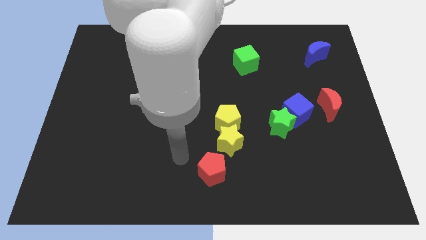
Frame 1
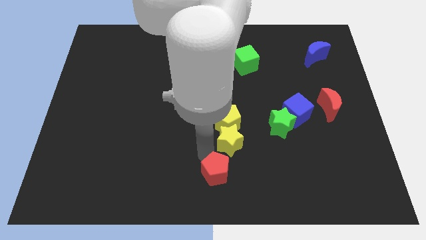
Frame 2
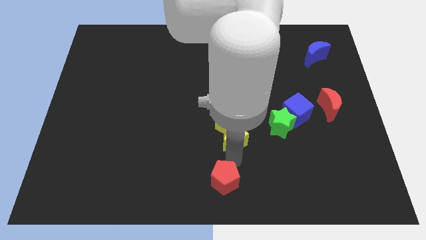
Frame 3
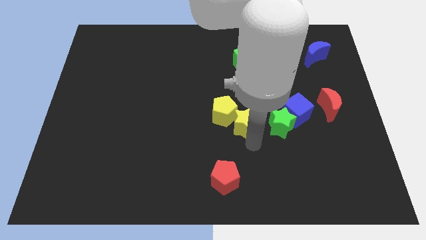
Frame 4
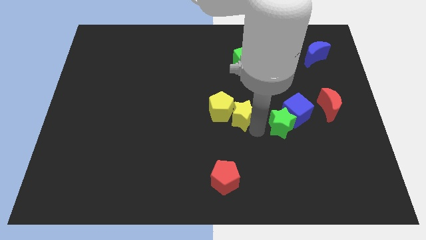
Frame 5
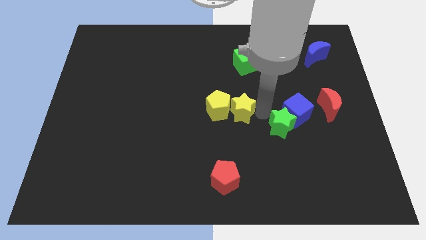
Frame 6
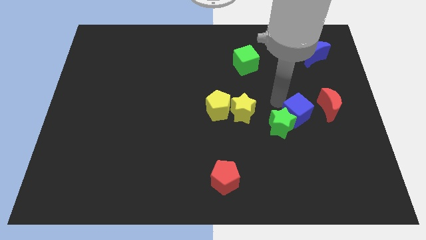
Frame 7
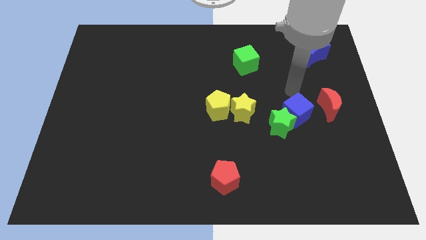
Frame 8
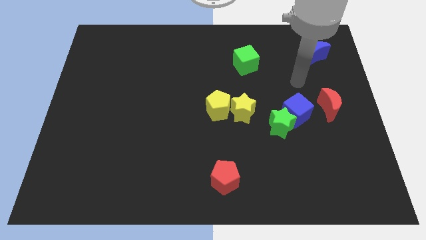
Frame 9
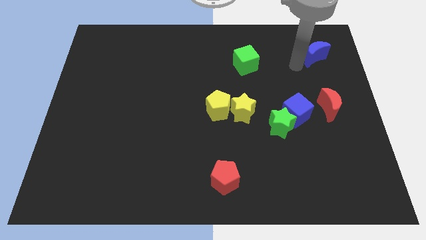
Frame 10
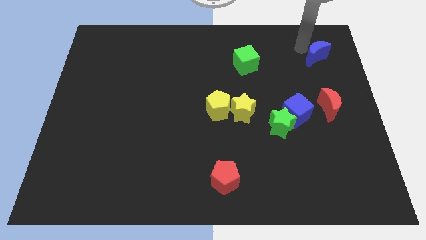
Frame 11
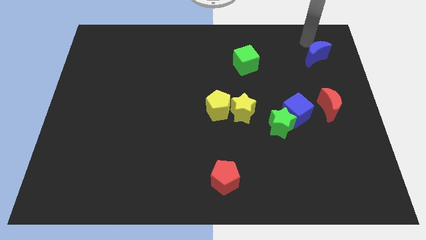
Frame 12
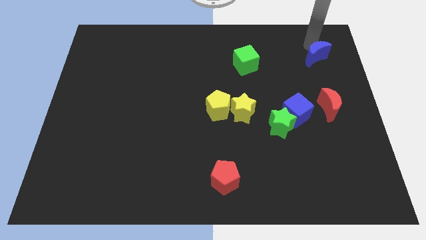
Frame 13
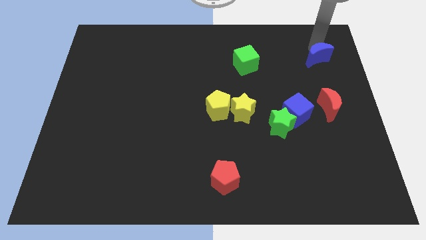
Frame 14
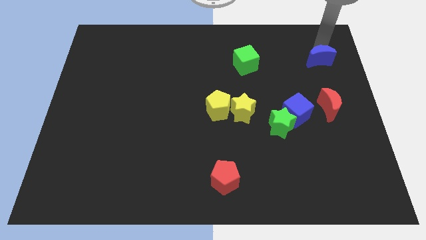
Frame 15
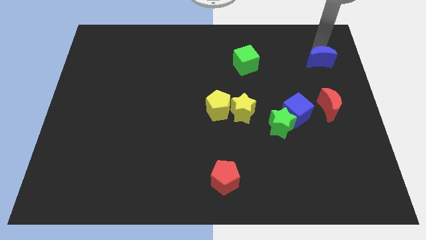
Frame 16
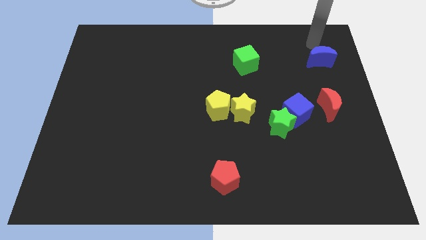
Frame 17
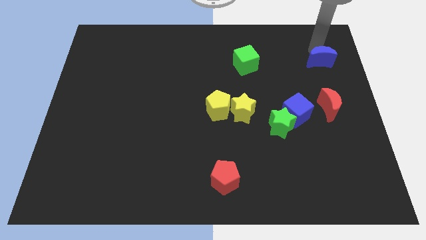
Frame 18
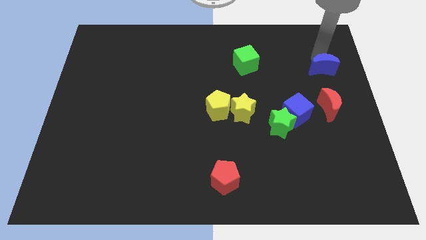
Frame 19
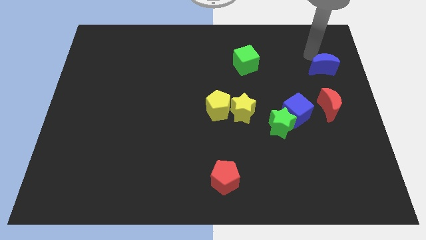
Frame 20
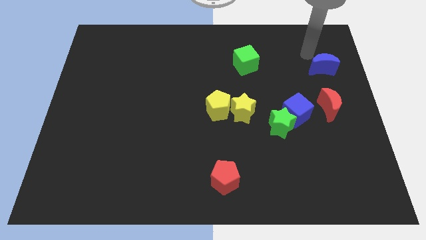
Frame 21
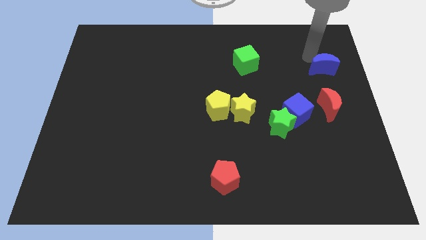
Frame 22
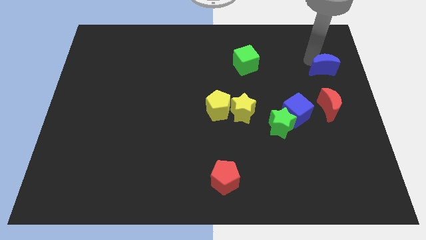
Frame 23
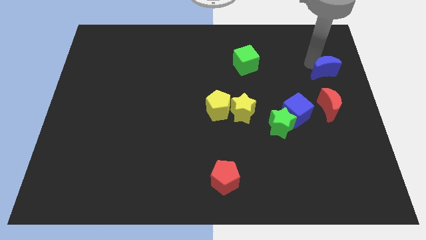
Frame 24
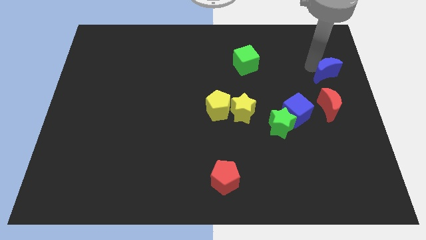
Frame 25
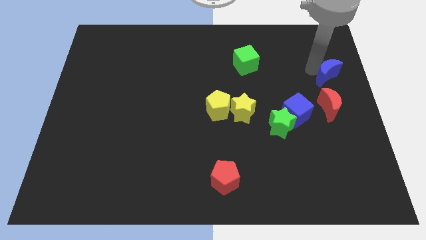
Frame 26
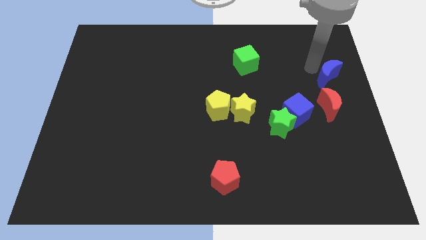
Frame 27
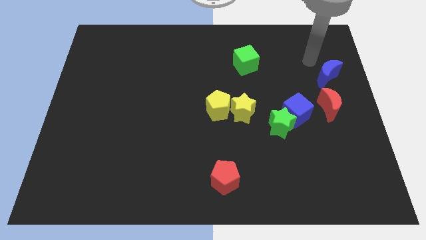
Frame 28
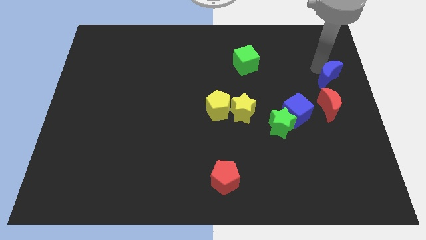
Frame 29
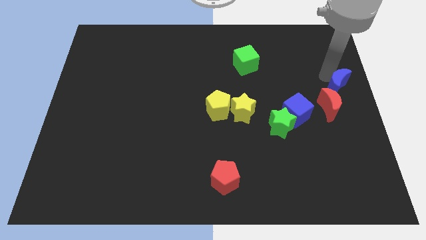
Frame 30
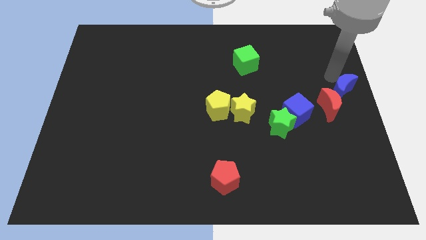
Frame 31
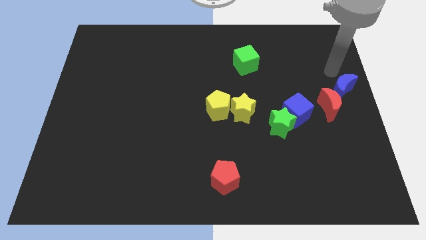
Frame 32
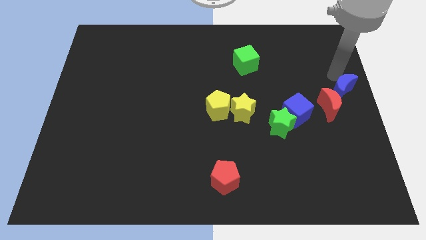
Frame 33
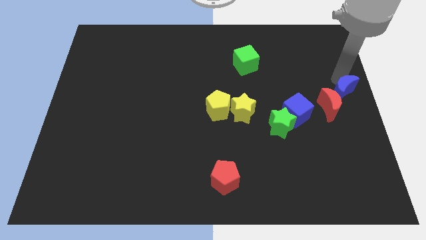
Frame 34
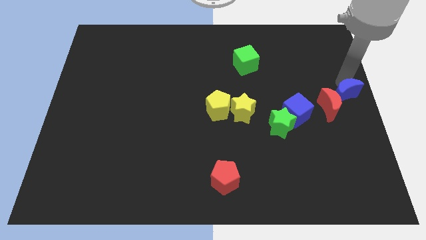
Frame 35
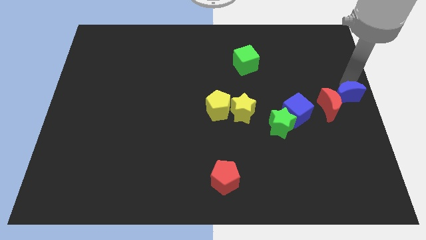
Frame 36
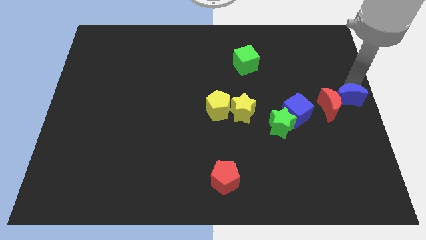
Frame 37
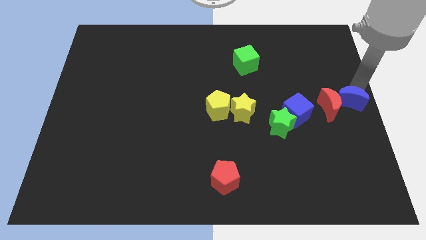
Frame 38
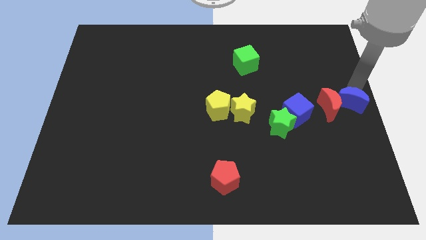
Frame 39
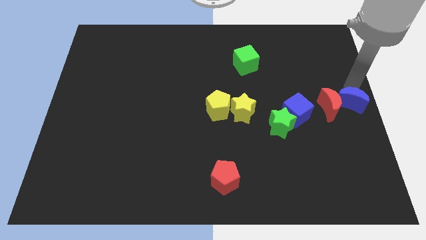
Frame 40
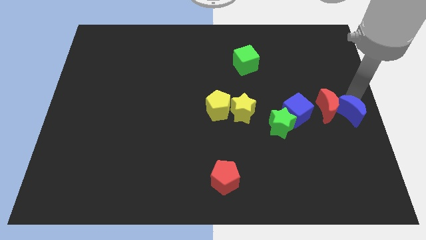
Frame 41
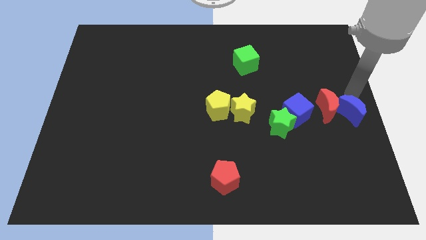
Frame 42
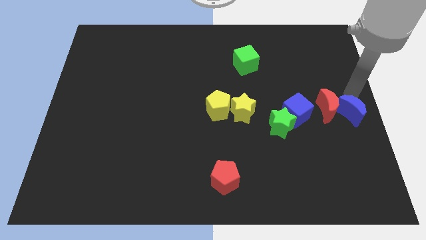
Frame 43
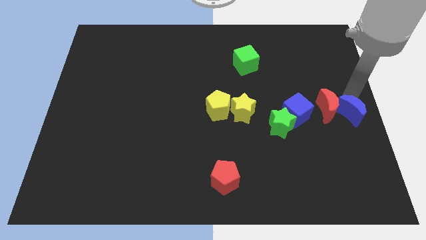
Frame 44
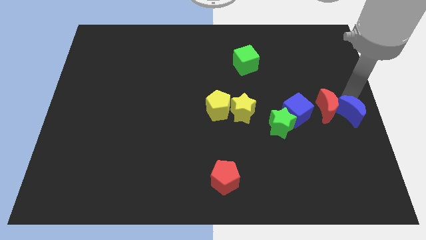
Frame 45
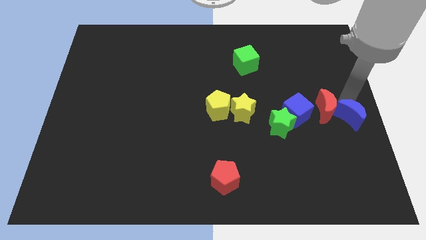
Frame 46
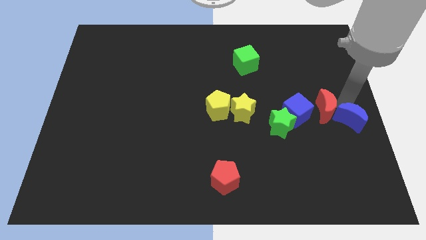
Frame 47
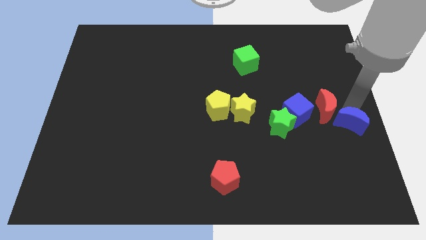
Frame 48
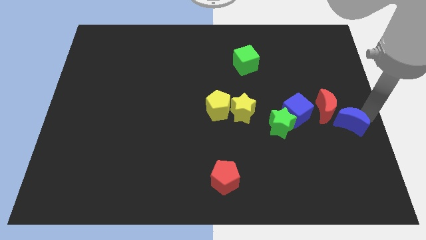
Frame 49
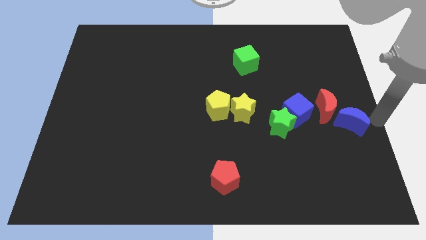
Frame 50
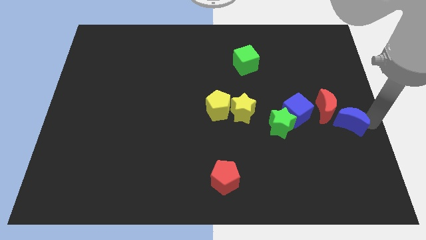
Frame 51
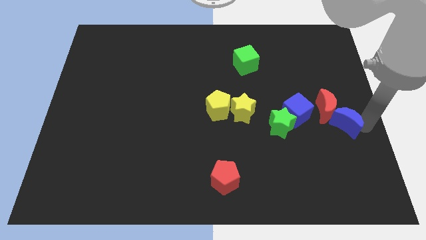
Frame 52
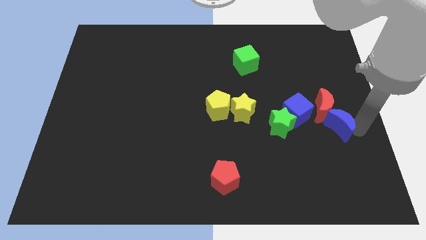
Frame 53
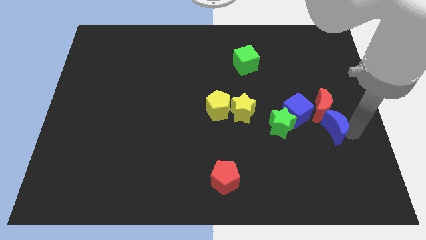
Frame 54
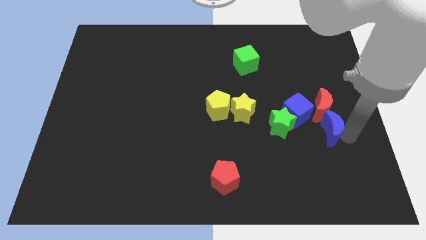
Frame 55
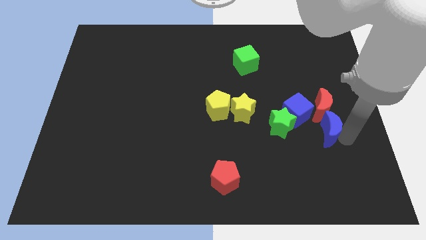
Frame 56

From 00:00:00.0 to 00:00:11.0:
move the blue moon to the bottom left side of the red moon

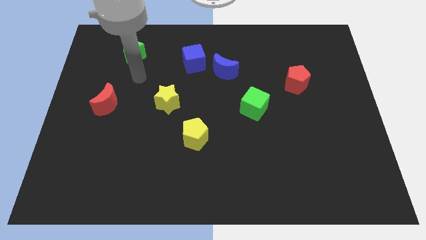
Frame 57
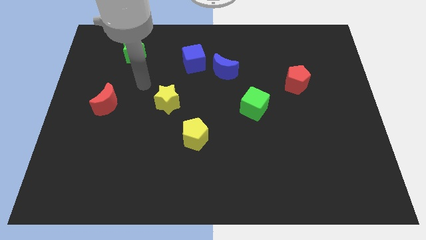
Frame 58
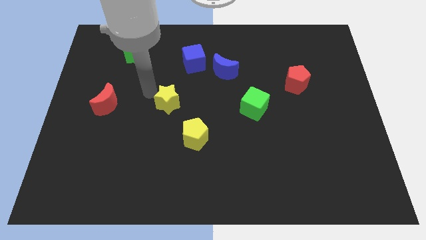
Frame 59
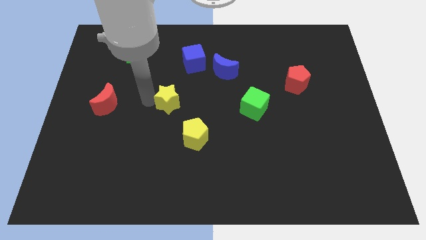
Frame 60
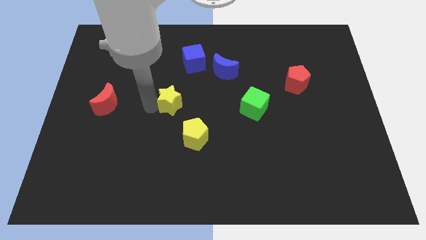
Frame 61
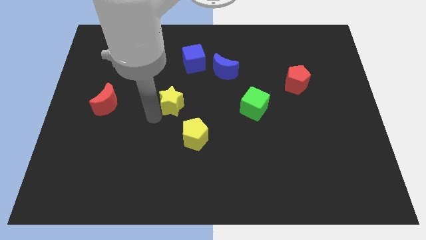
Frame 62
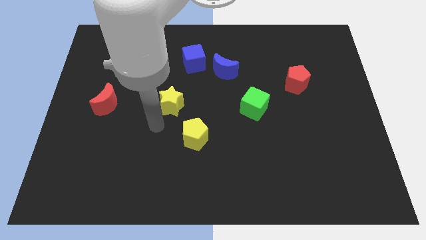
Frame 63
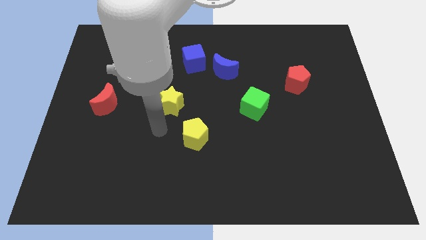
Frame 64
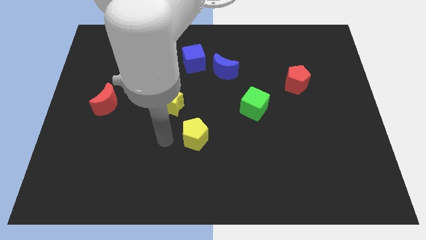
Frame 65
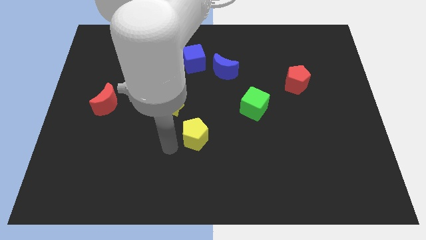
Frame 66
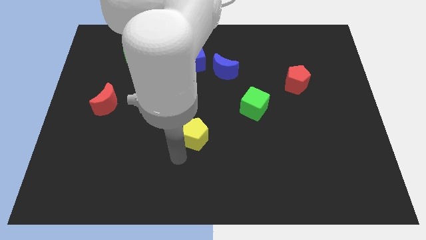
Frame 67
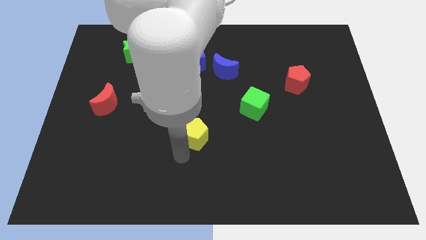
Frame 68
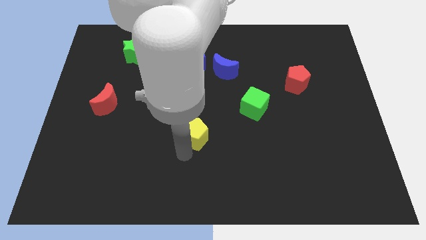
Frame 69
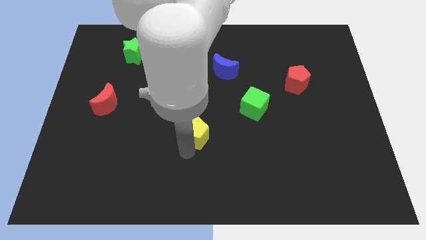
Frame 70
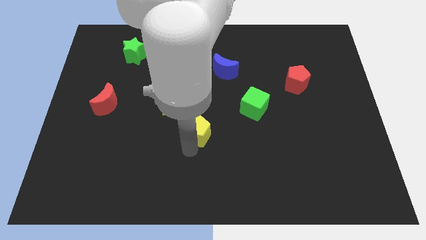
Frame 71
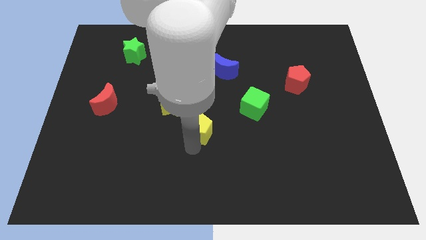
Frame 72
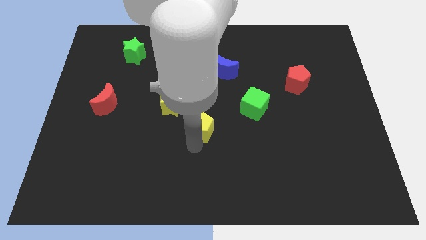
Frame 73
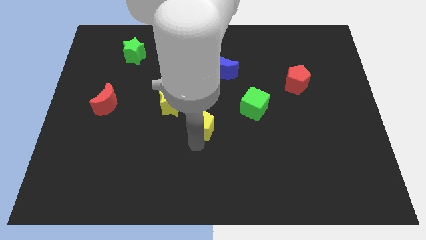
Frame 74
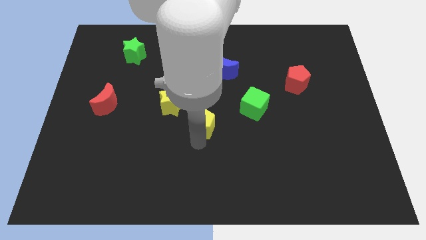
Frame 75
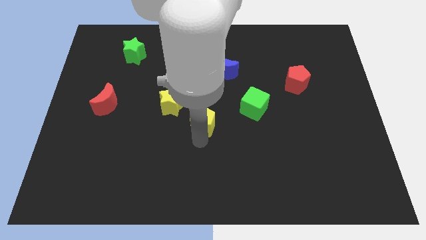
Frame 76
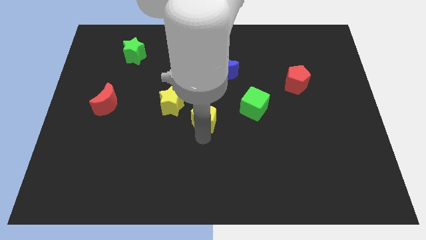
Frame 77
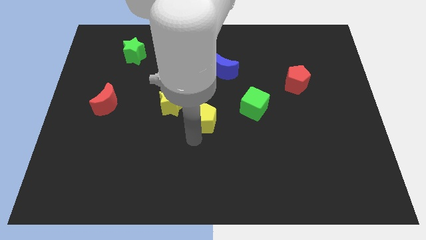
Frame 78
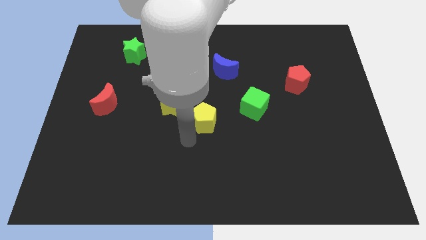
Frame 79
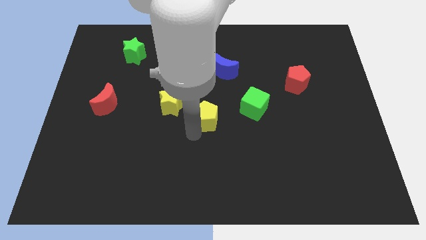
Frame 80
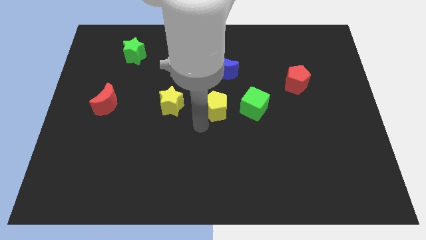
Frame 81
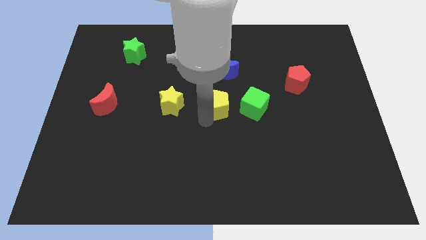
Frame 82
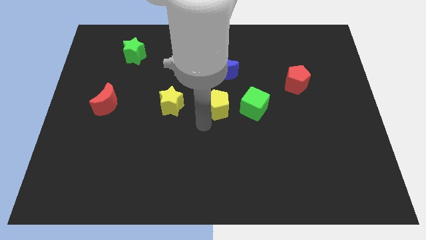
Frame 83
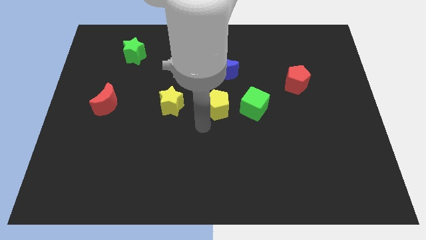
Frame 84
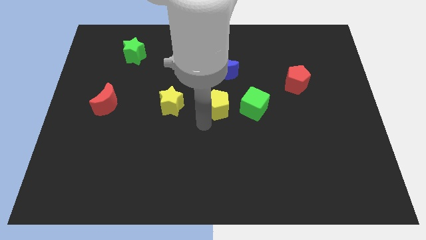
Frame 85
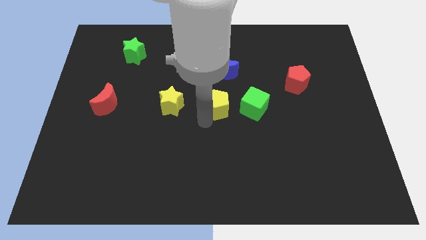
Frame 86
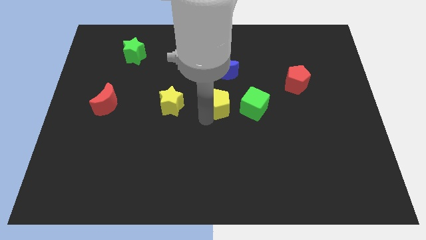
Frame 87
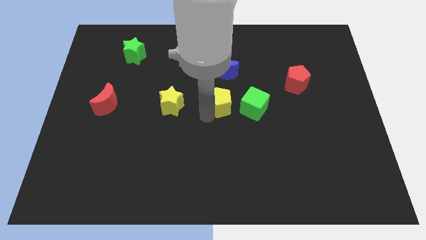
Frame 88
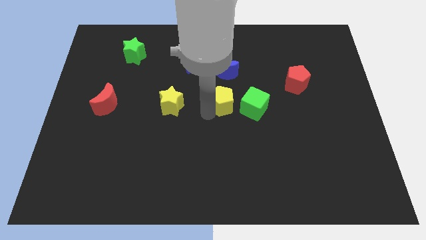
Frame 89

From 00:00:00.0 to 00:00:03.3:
move the yellow pentagon to the top left of the green cube
